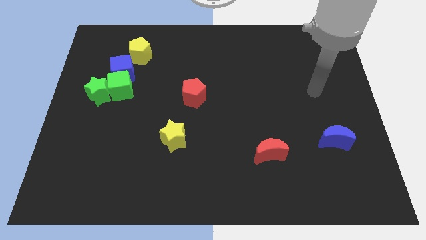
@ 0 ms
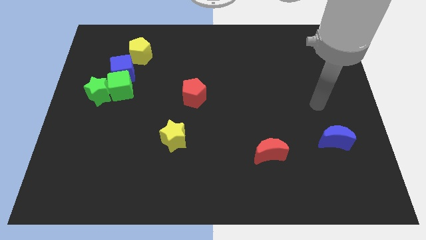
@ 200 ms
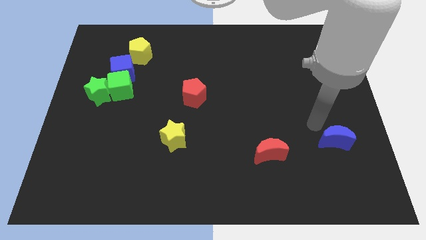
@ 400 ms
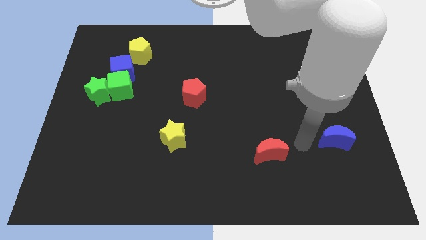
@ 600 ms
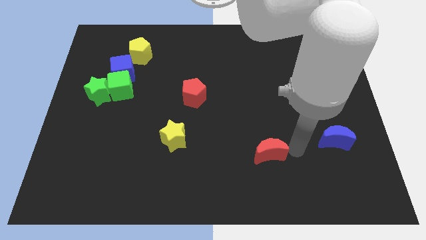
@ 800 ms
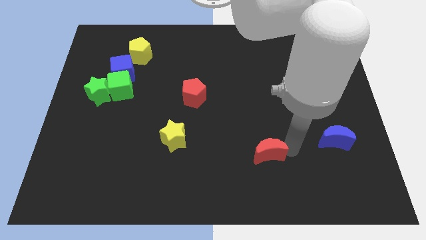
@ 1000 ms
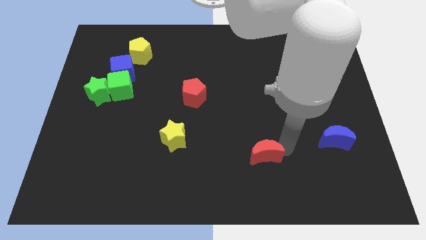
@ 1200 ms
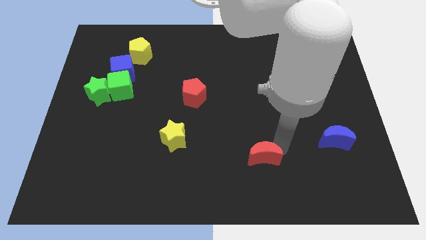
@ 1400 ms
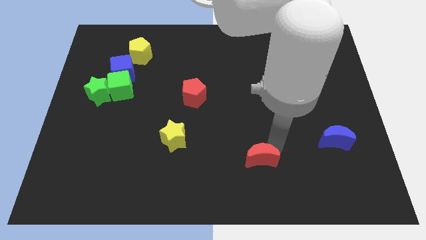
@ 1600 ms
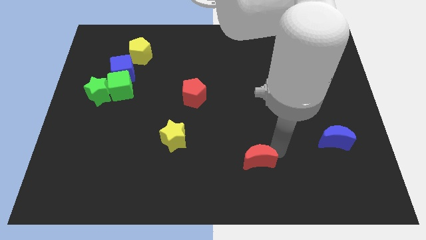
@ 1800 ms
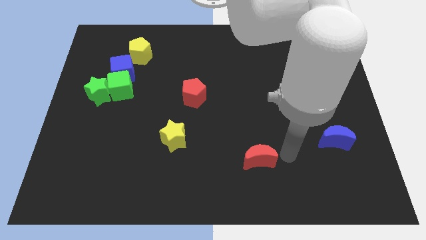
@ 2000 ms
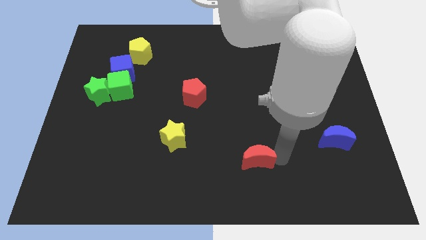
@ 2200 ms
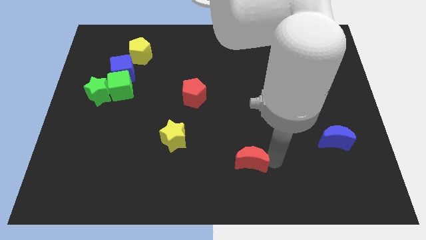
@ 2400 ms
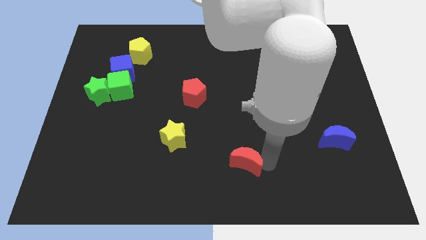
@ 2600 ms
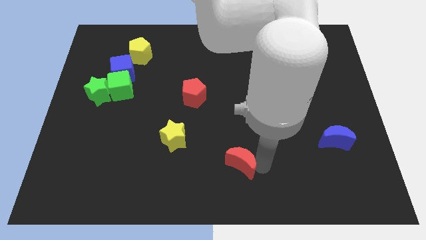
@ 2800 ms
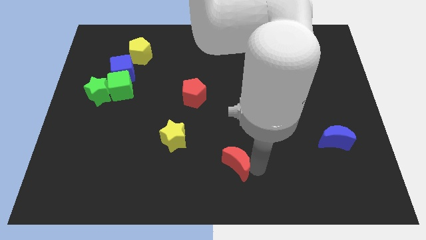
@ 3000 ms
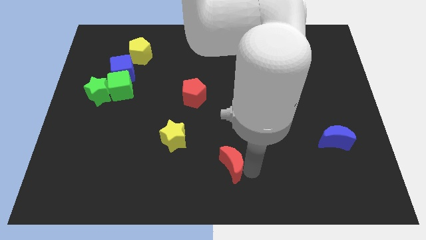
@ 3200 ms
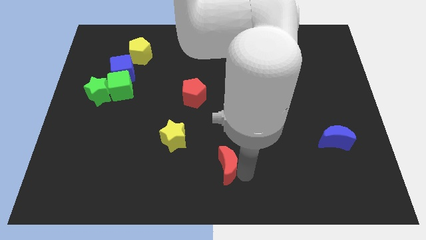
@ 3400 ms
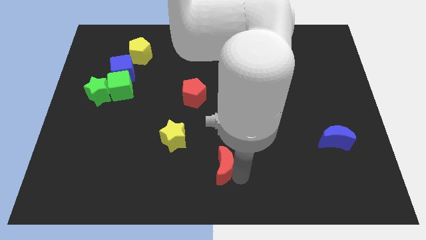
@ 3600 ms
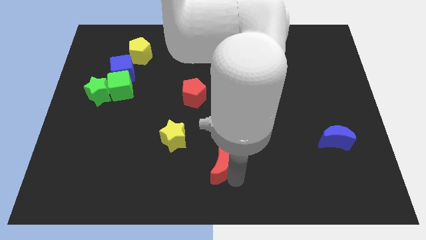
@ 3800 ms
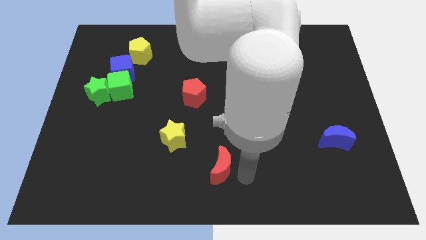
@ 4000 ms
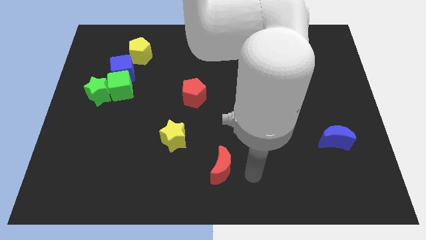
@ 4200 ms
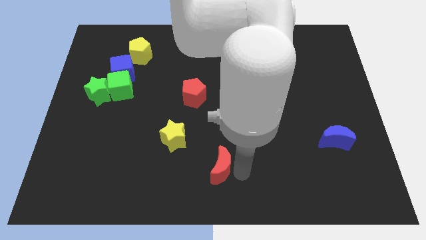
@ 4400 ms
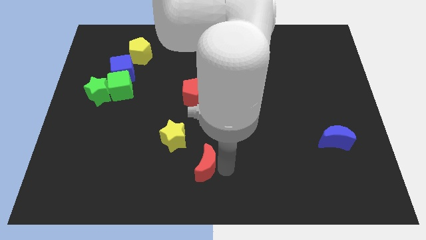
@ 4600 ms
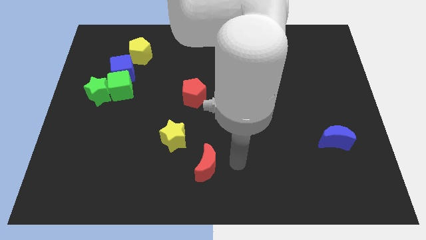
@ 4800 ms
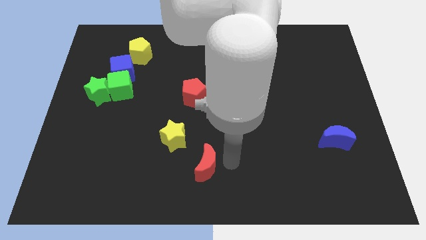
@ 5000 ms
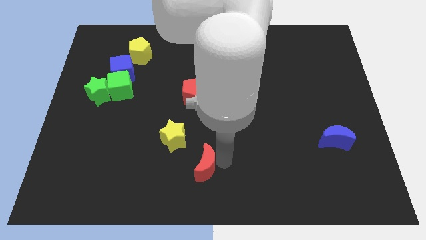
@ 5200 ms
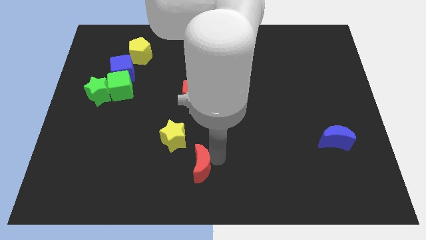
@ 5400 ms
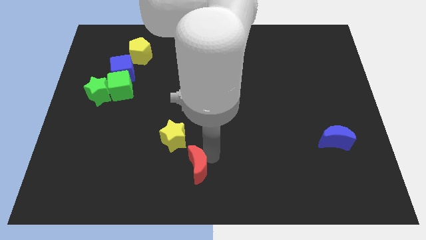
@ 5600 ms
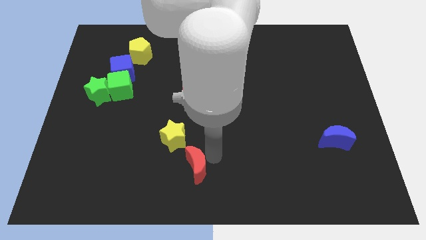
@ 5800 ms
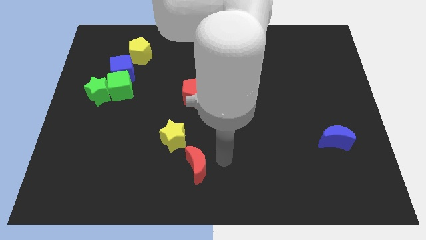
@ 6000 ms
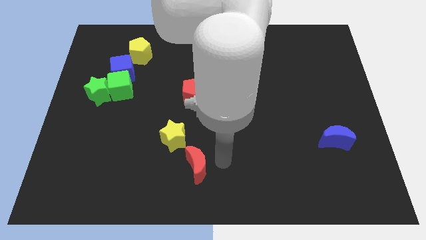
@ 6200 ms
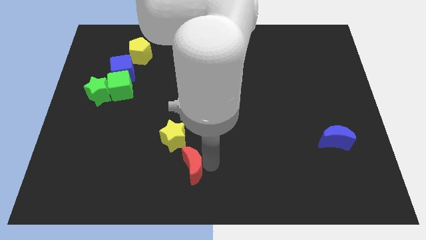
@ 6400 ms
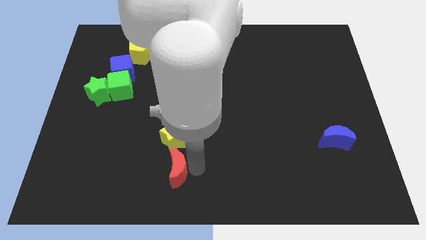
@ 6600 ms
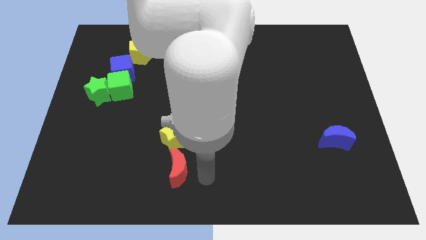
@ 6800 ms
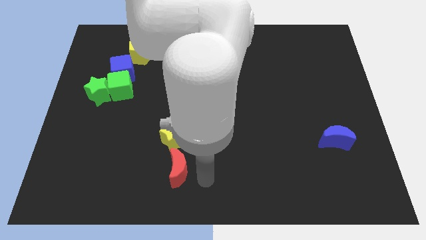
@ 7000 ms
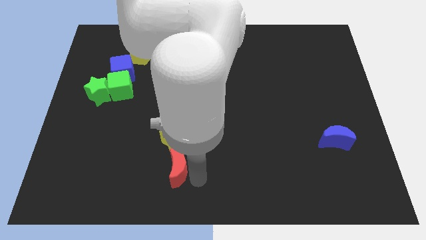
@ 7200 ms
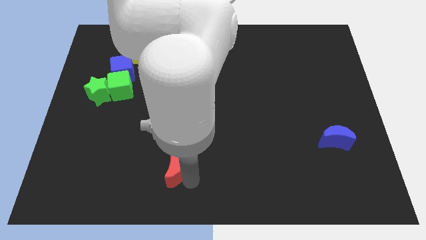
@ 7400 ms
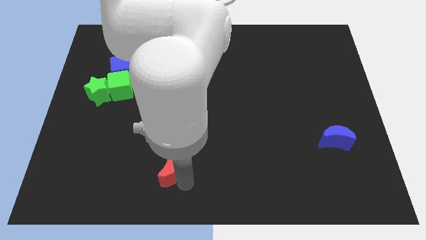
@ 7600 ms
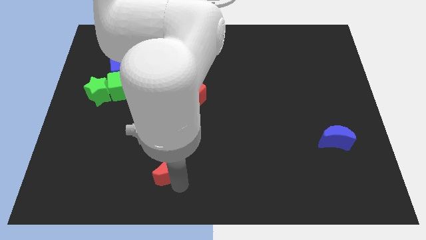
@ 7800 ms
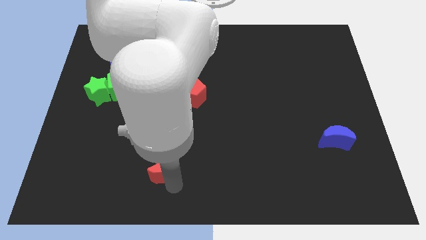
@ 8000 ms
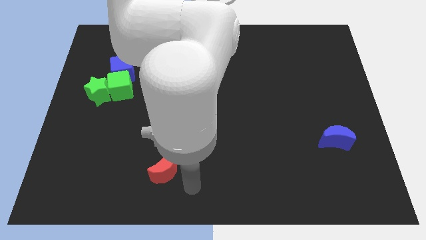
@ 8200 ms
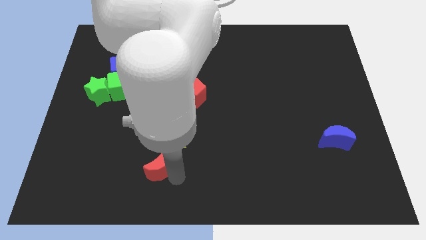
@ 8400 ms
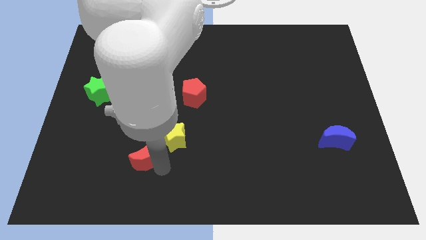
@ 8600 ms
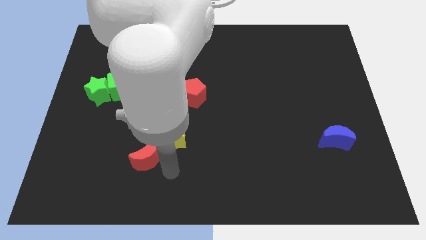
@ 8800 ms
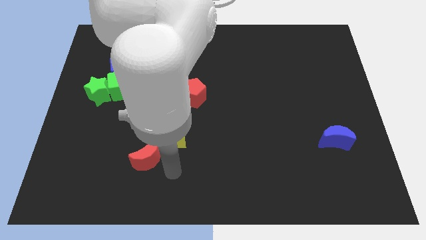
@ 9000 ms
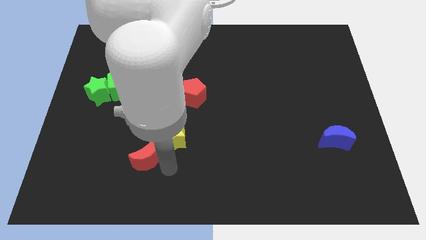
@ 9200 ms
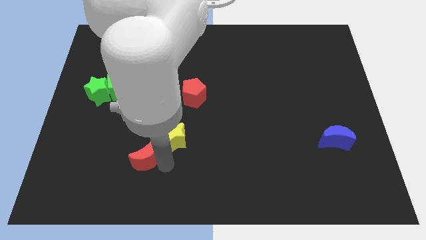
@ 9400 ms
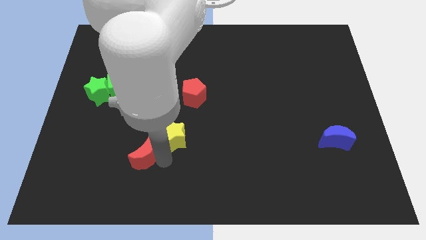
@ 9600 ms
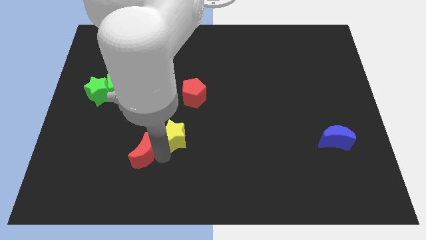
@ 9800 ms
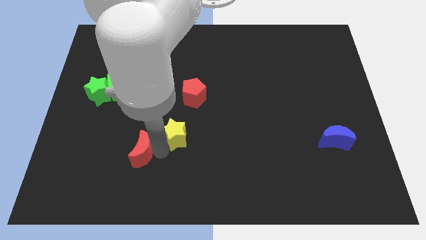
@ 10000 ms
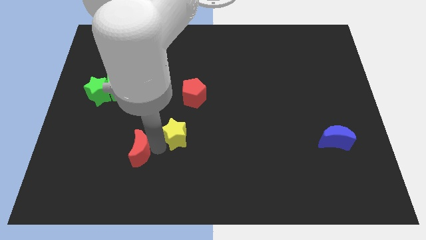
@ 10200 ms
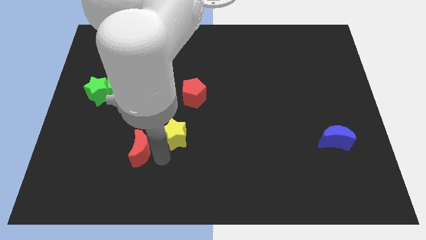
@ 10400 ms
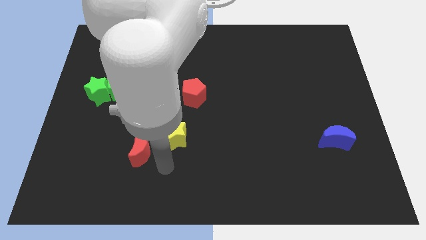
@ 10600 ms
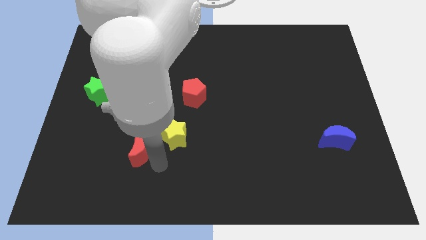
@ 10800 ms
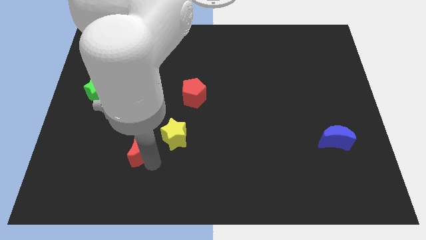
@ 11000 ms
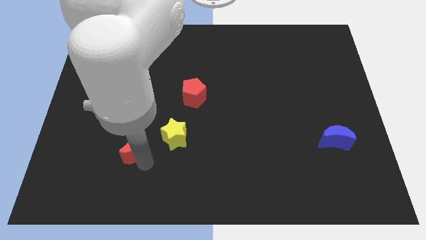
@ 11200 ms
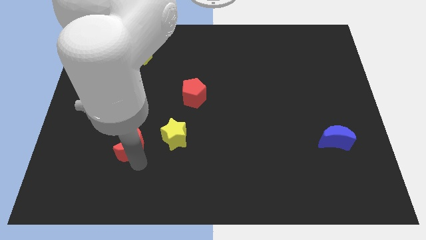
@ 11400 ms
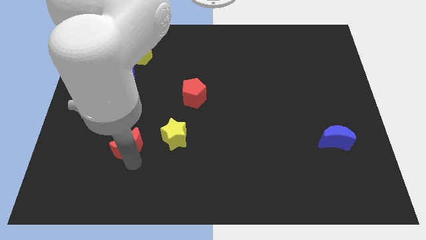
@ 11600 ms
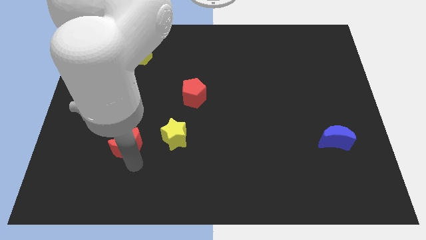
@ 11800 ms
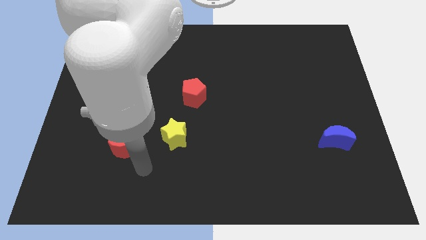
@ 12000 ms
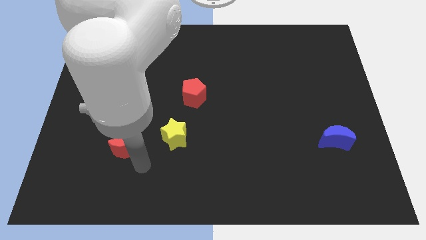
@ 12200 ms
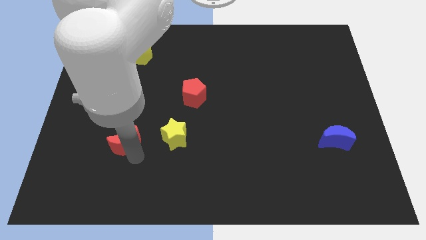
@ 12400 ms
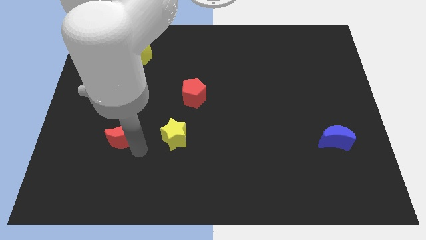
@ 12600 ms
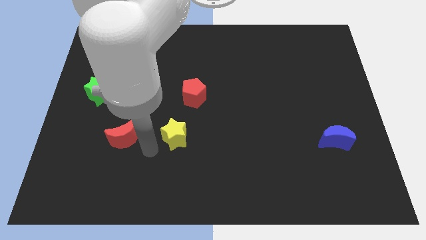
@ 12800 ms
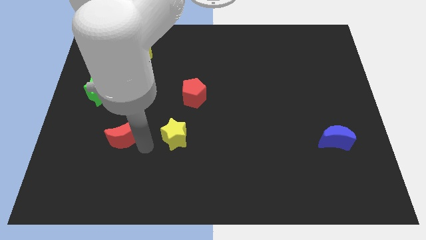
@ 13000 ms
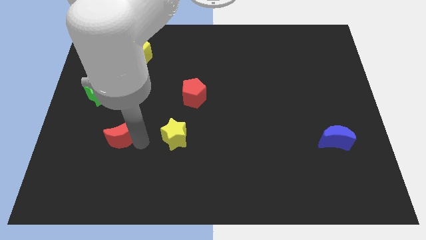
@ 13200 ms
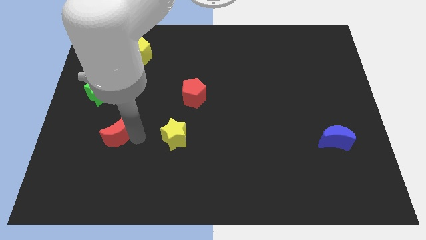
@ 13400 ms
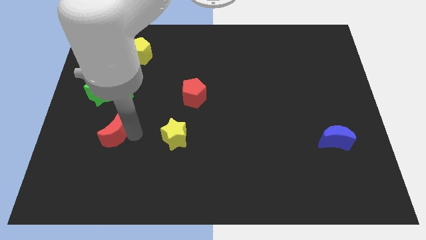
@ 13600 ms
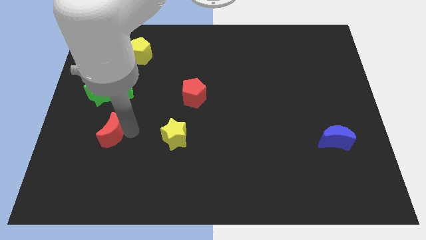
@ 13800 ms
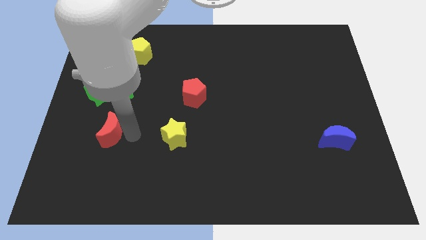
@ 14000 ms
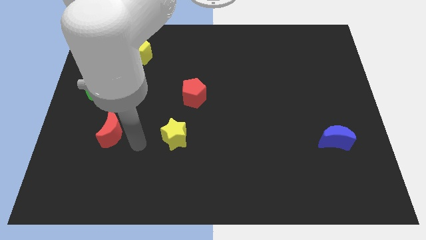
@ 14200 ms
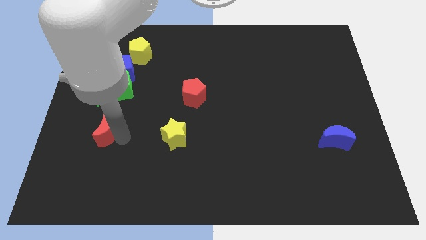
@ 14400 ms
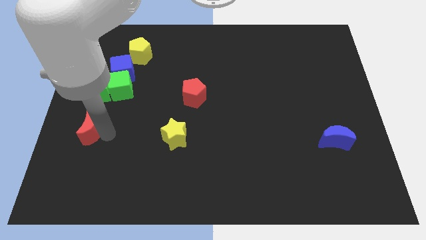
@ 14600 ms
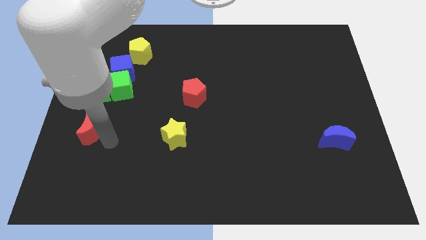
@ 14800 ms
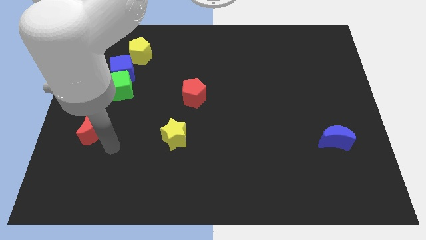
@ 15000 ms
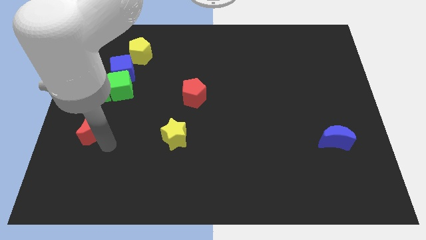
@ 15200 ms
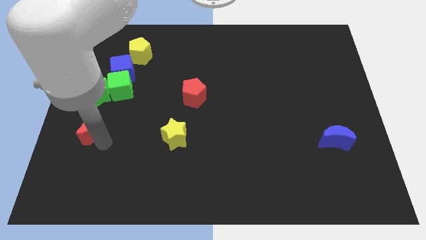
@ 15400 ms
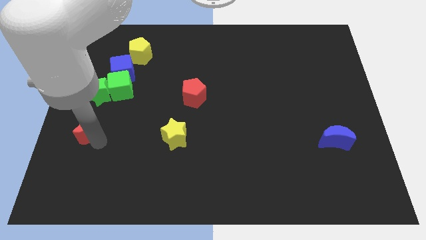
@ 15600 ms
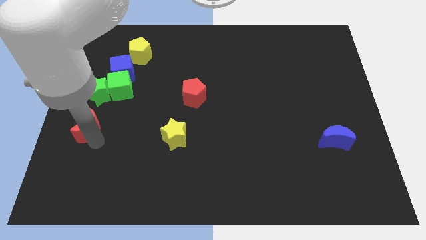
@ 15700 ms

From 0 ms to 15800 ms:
move the red moon to the left side
